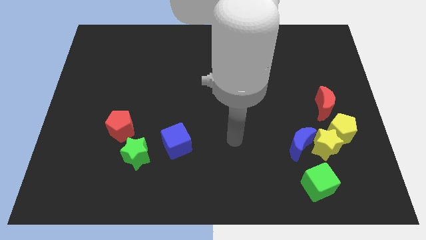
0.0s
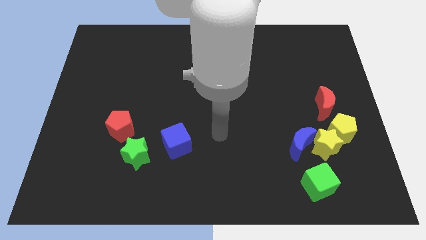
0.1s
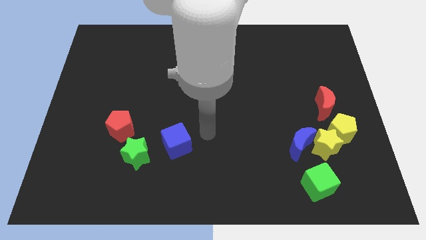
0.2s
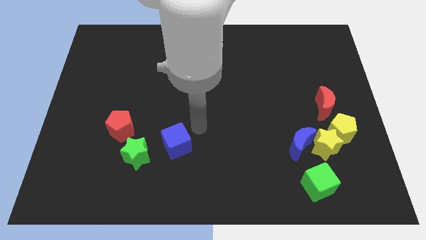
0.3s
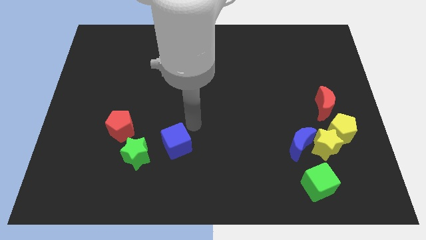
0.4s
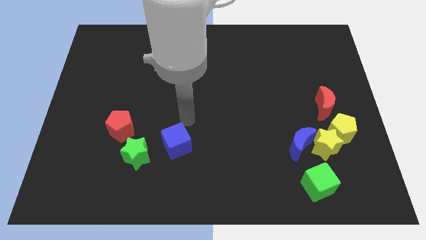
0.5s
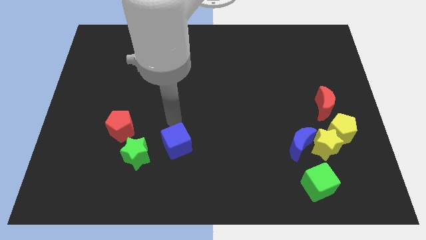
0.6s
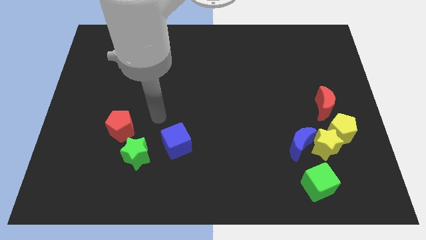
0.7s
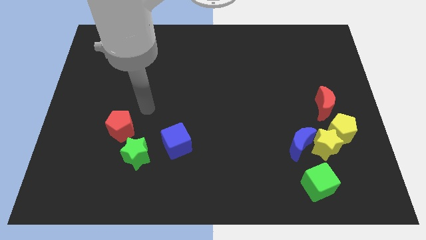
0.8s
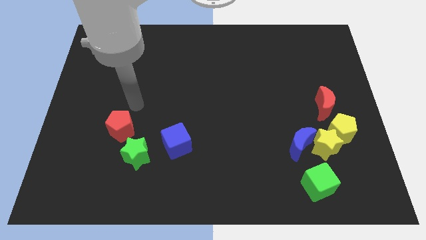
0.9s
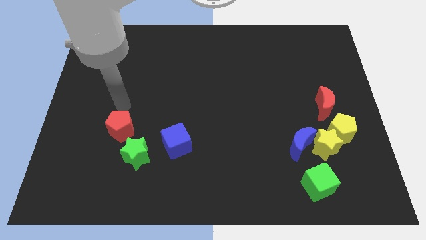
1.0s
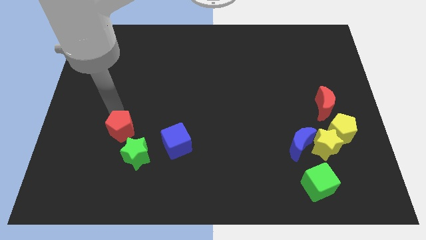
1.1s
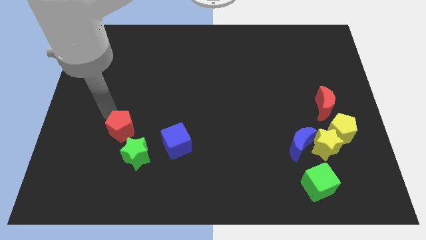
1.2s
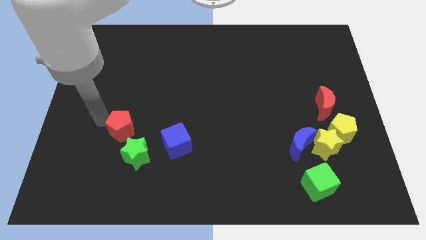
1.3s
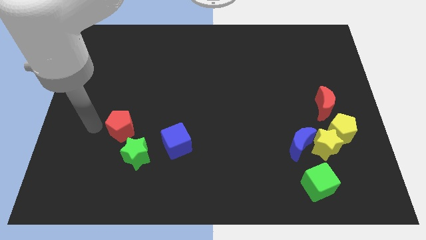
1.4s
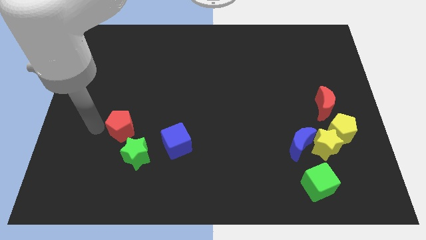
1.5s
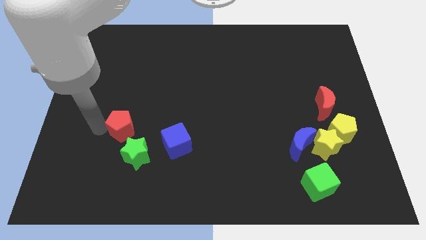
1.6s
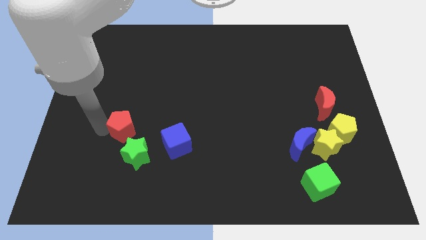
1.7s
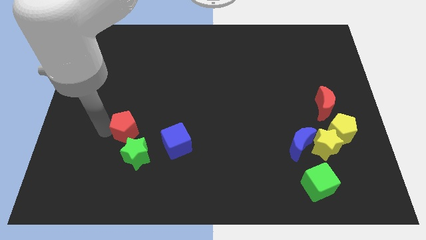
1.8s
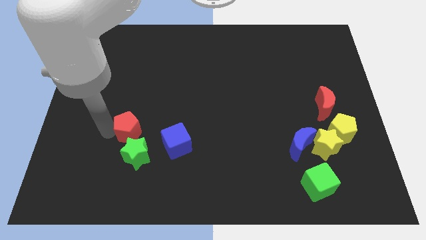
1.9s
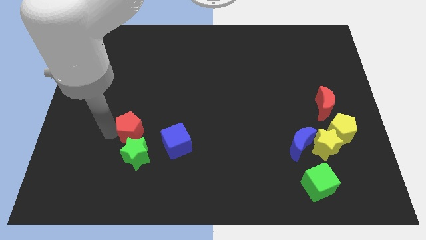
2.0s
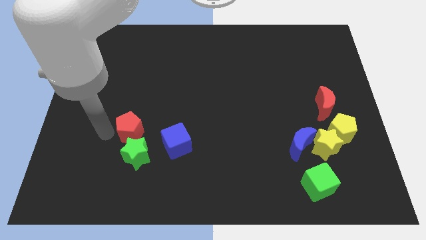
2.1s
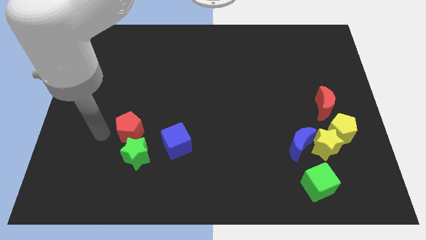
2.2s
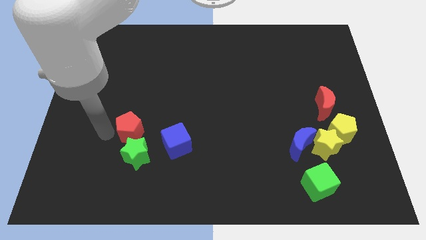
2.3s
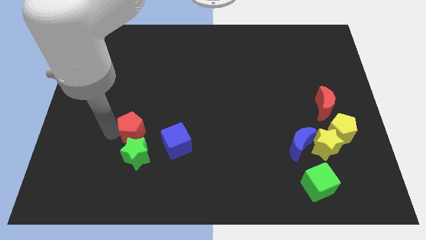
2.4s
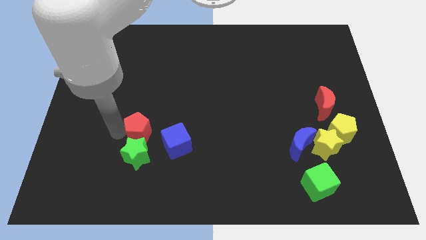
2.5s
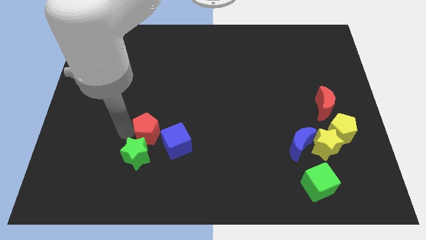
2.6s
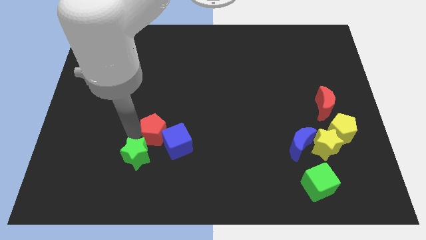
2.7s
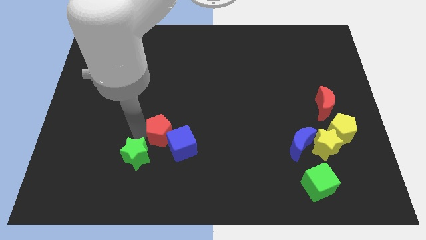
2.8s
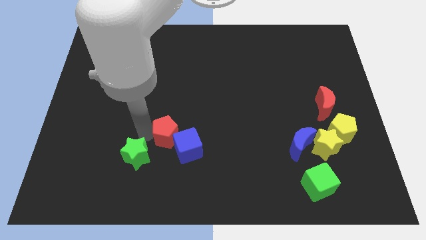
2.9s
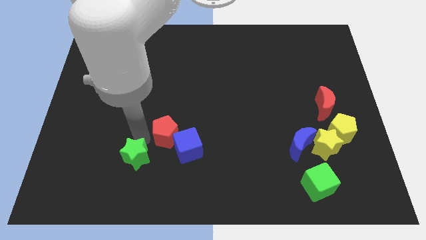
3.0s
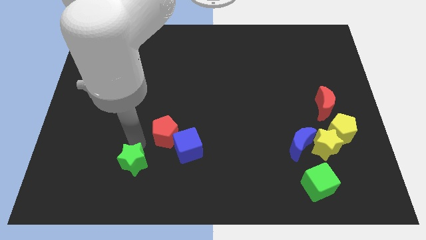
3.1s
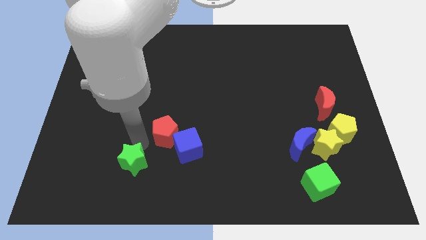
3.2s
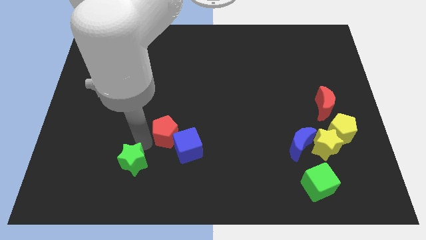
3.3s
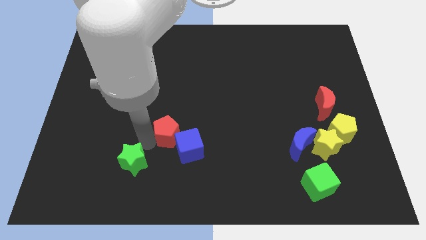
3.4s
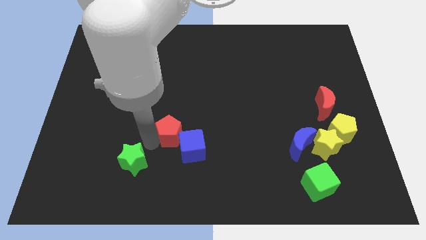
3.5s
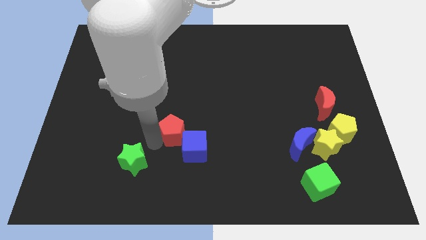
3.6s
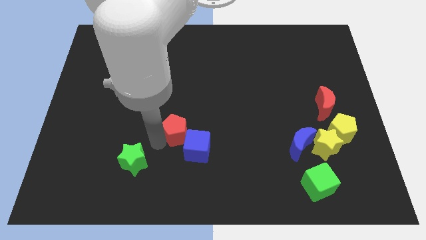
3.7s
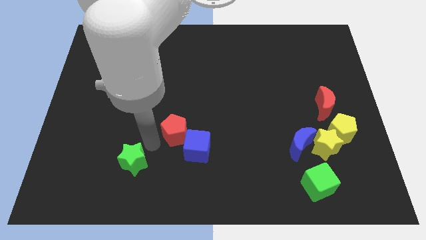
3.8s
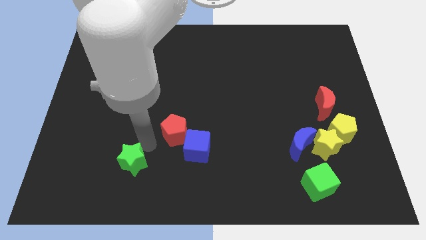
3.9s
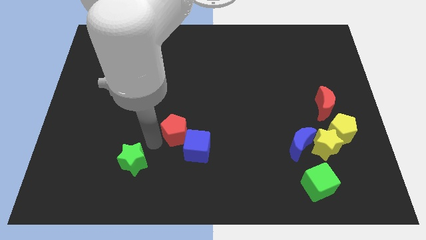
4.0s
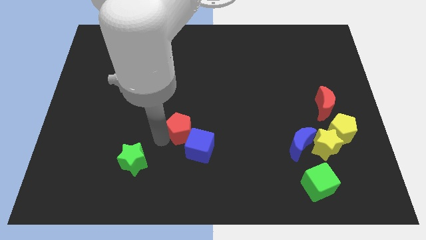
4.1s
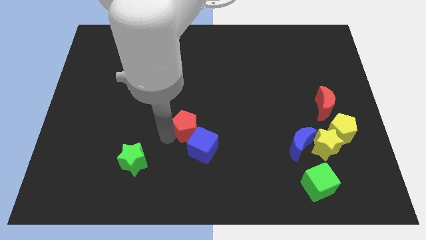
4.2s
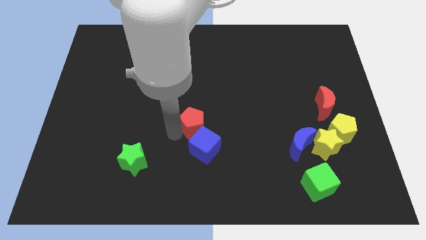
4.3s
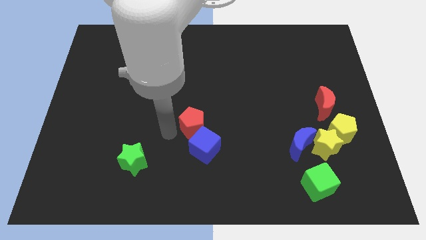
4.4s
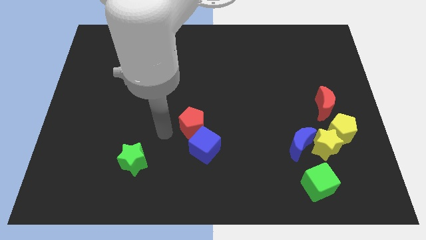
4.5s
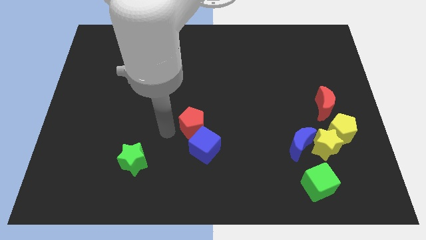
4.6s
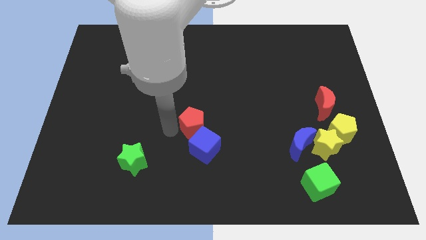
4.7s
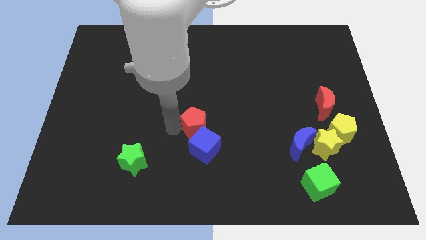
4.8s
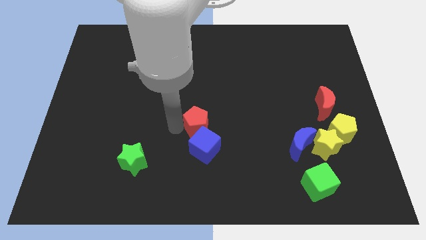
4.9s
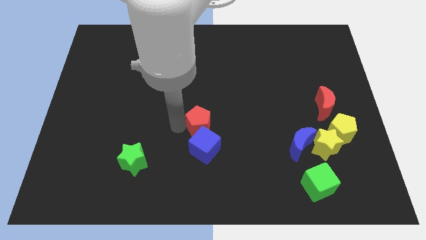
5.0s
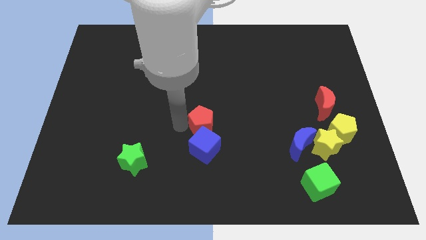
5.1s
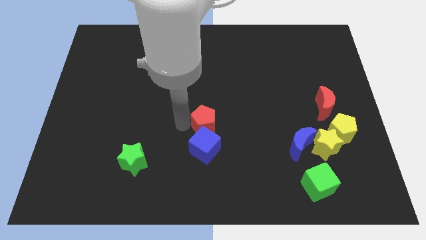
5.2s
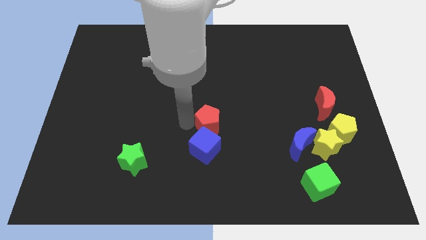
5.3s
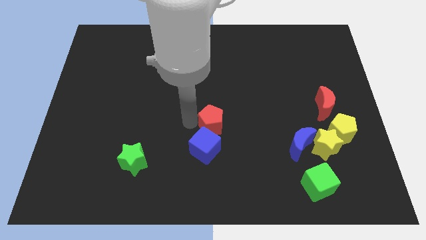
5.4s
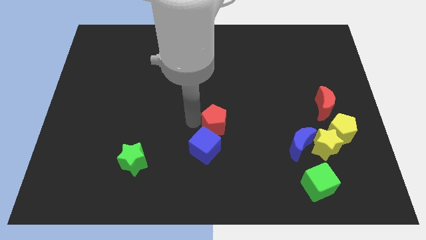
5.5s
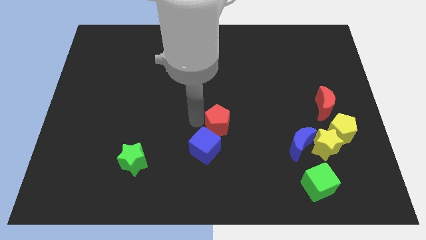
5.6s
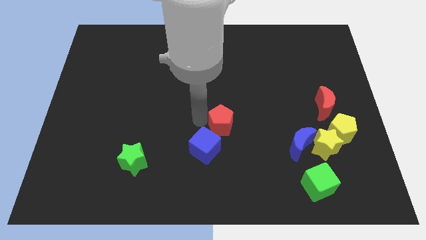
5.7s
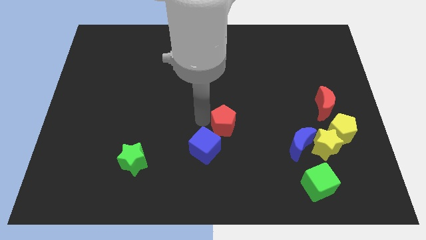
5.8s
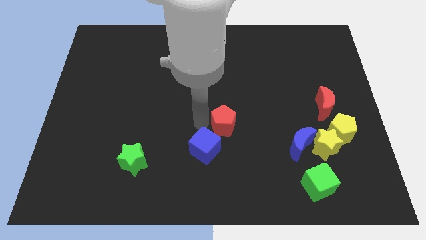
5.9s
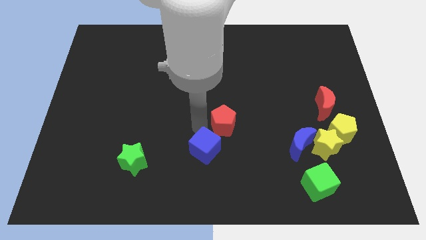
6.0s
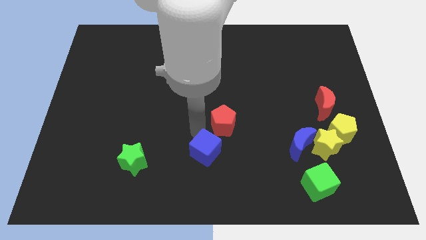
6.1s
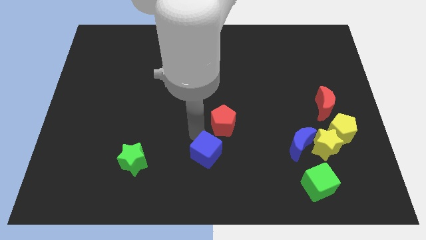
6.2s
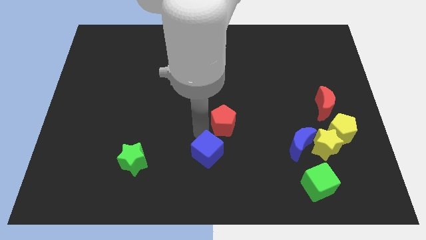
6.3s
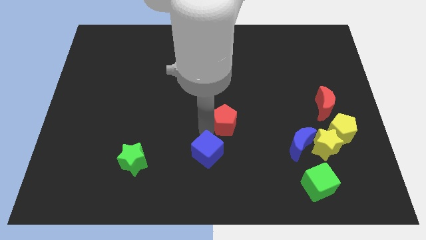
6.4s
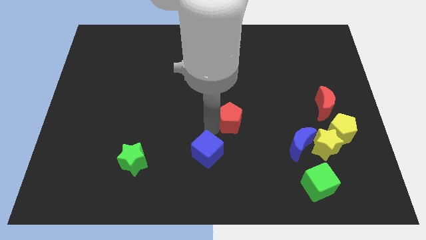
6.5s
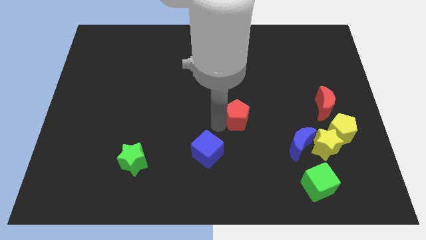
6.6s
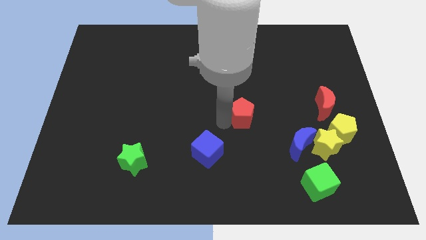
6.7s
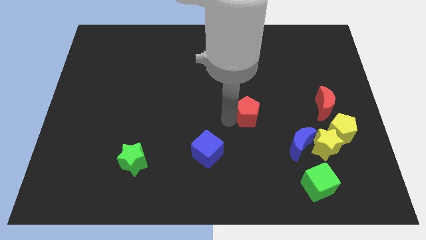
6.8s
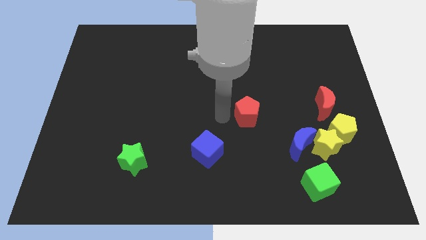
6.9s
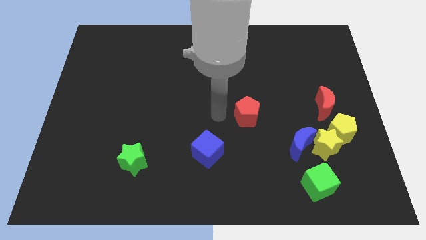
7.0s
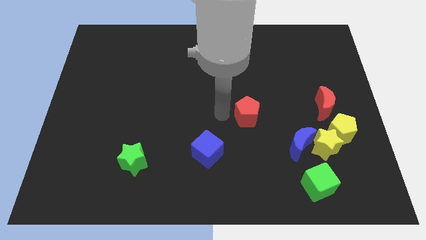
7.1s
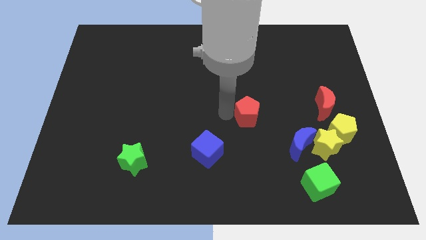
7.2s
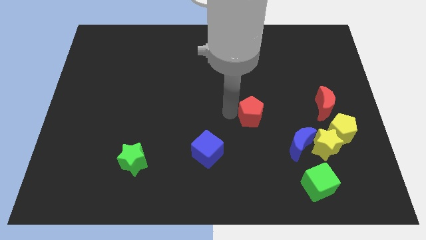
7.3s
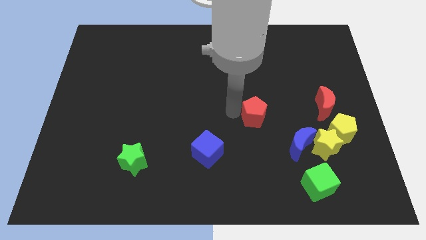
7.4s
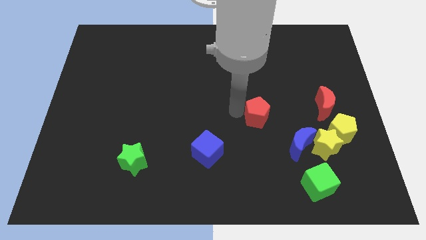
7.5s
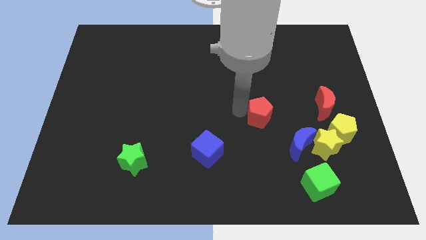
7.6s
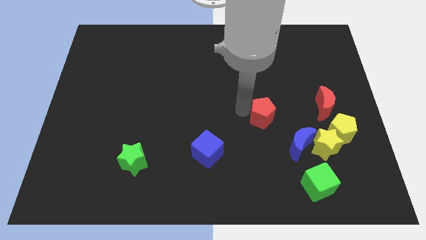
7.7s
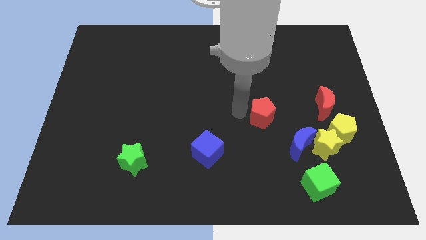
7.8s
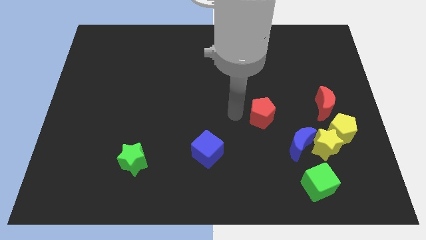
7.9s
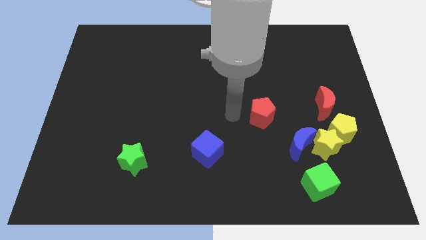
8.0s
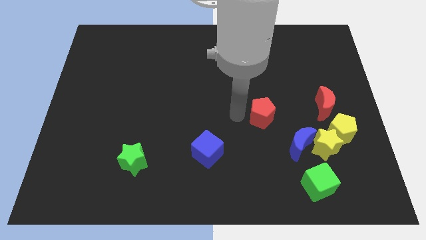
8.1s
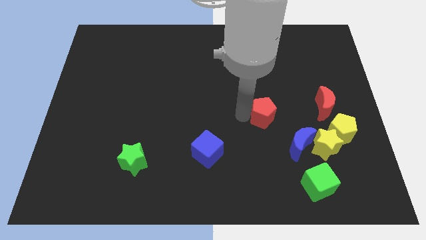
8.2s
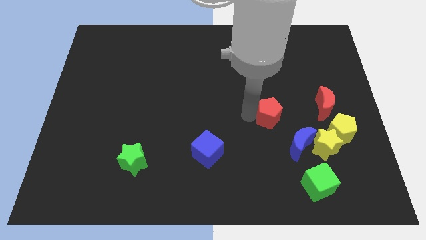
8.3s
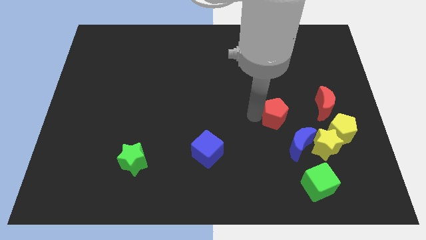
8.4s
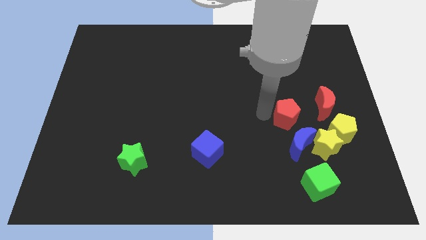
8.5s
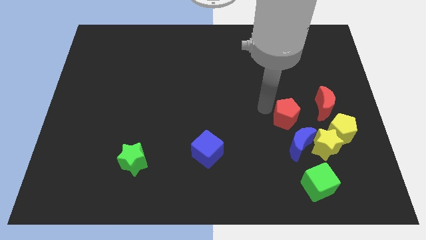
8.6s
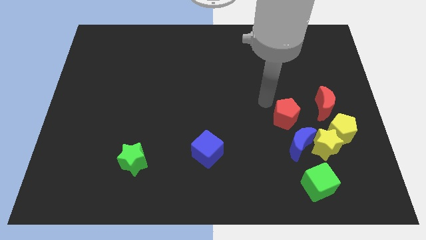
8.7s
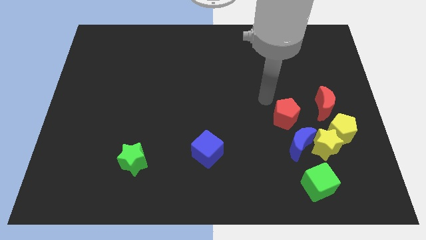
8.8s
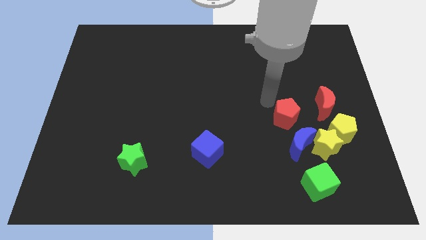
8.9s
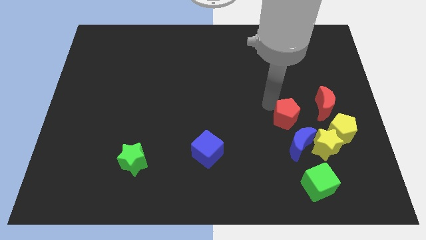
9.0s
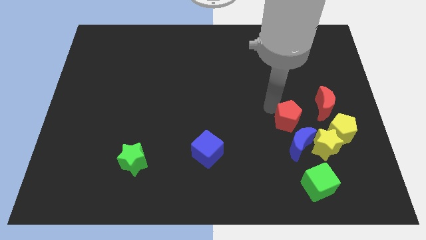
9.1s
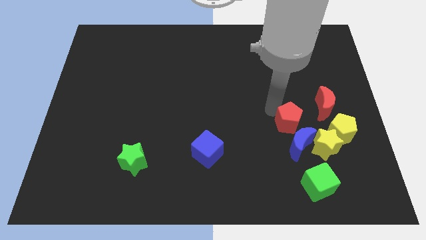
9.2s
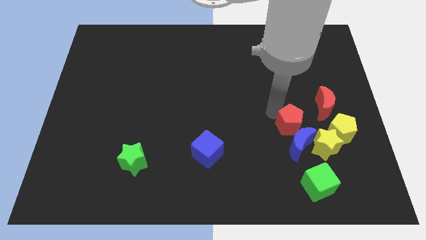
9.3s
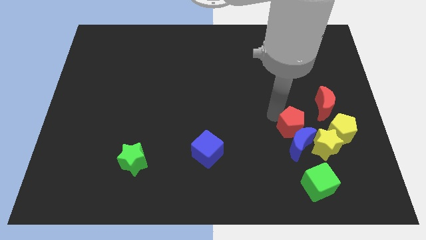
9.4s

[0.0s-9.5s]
slide the red pentagon to the top side of the green cube
